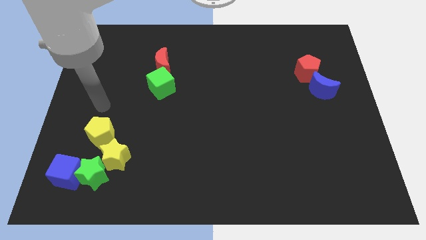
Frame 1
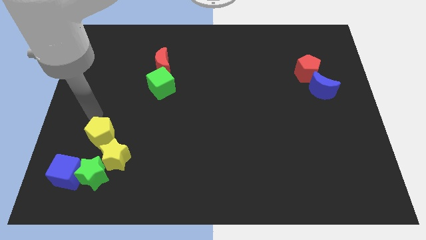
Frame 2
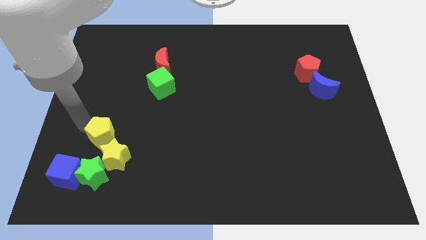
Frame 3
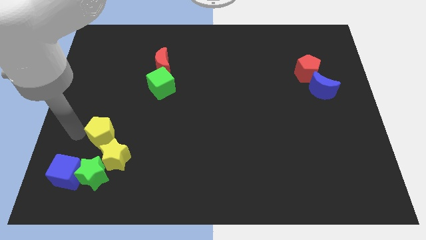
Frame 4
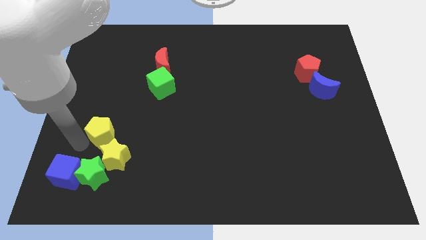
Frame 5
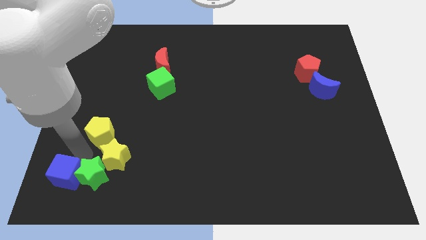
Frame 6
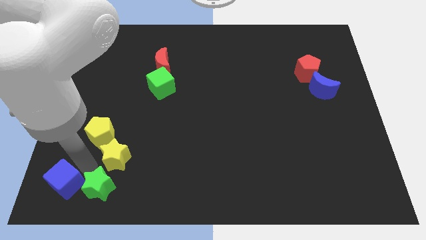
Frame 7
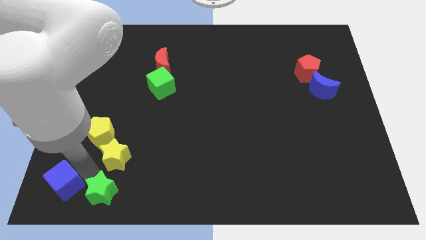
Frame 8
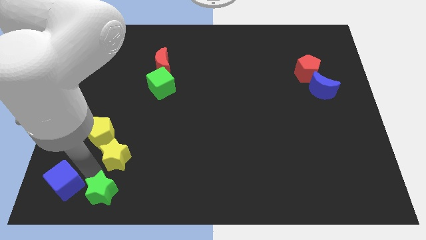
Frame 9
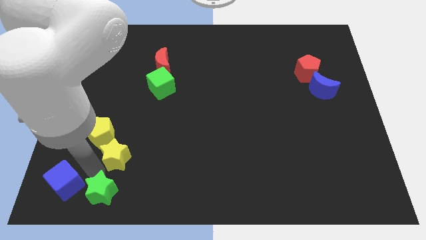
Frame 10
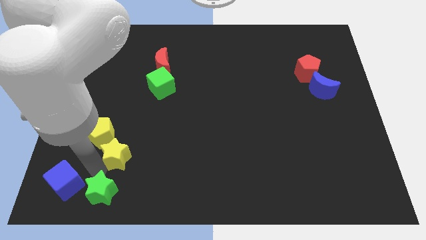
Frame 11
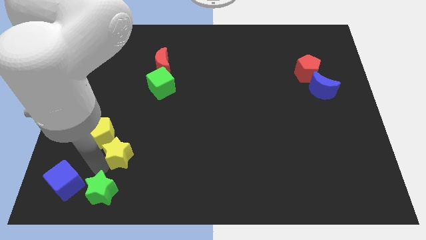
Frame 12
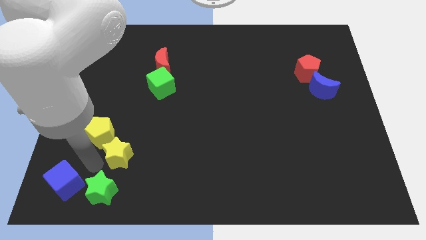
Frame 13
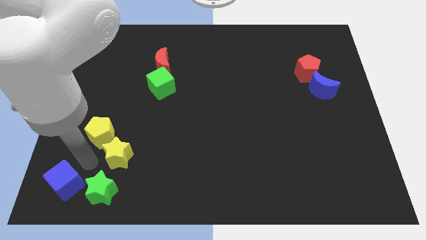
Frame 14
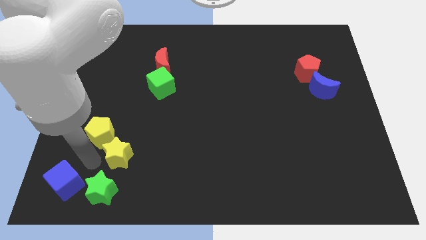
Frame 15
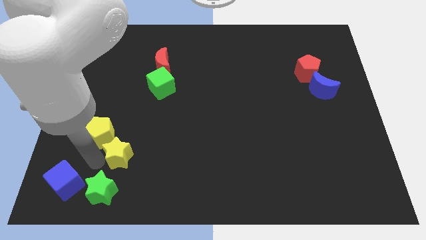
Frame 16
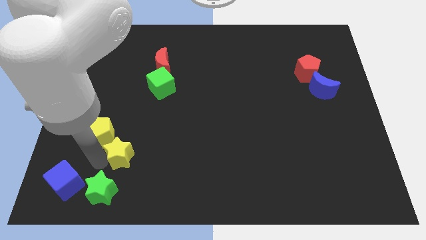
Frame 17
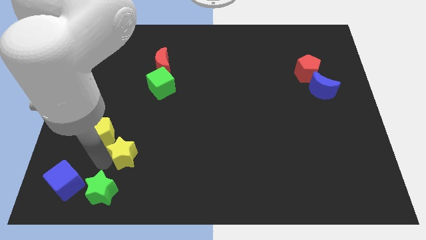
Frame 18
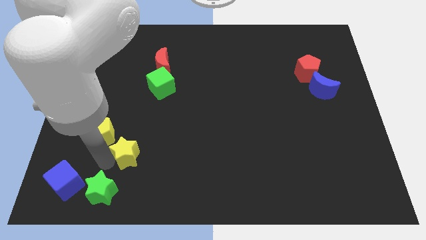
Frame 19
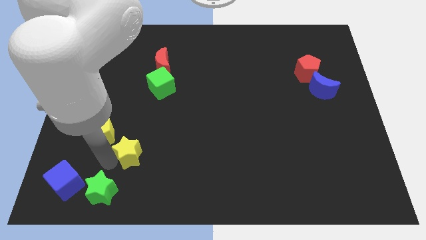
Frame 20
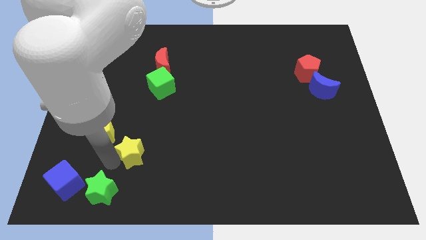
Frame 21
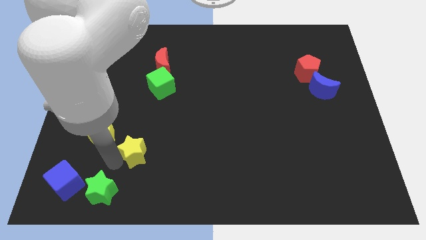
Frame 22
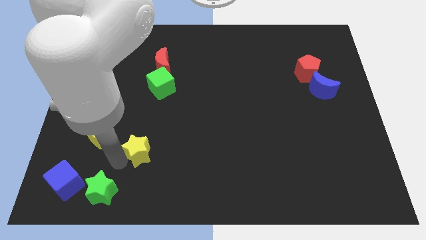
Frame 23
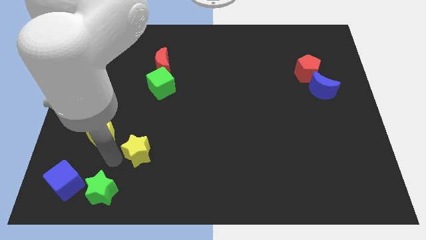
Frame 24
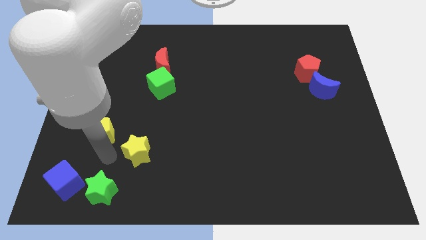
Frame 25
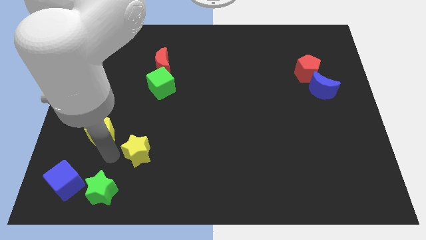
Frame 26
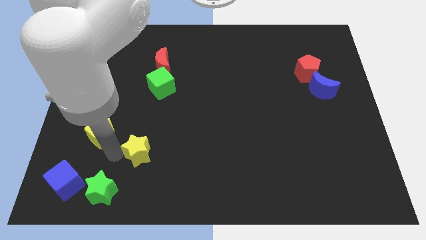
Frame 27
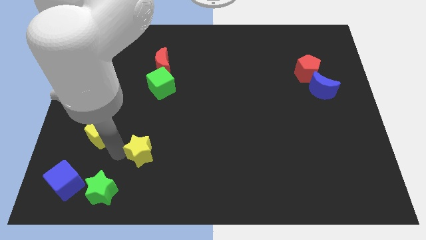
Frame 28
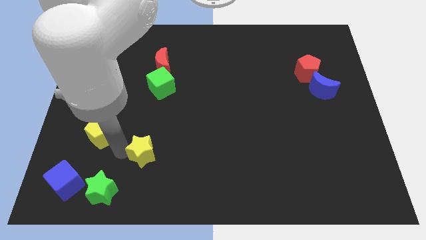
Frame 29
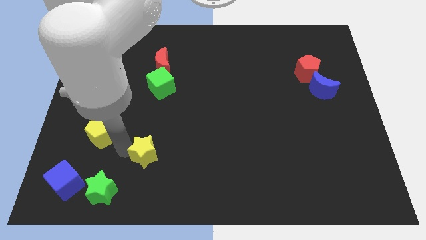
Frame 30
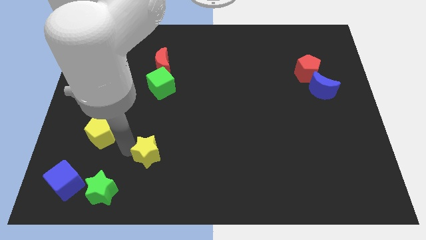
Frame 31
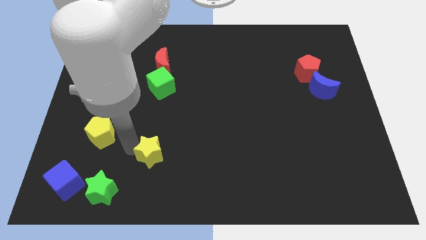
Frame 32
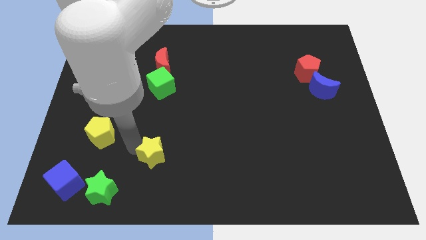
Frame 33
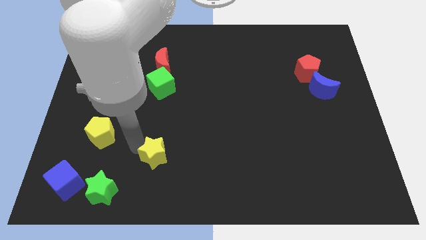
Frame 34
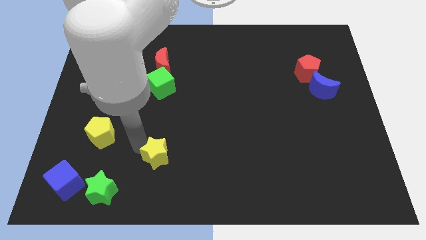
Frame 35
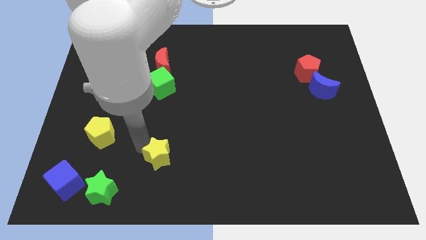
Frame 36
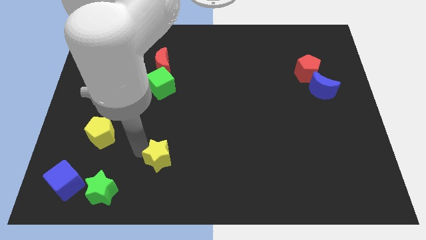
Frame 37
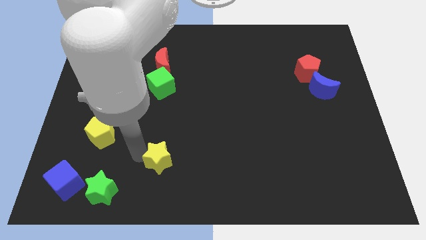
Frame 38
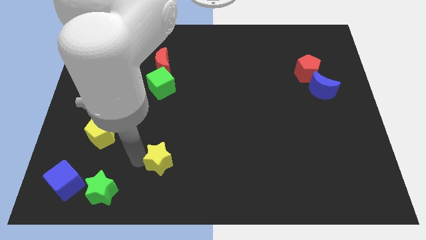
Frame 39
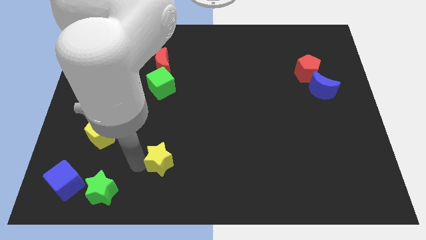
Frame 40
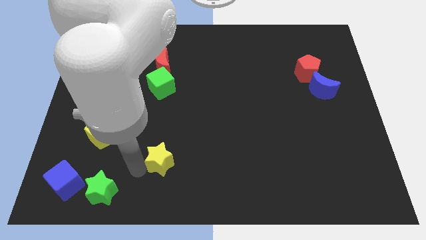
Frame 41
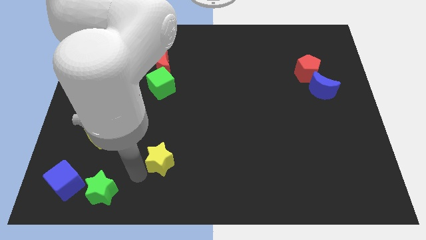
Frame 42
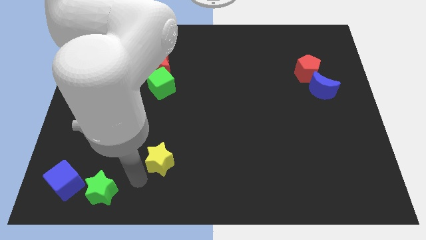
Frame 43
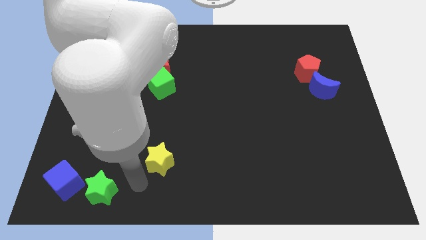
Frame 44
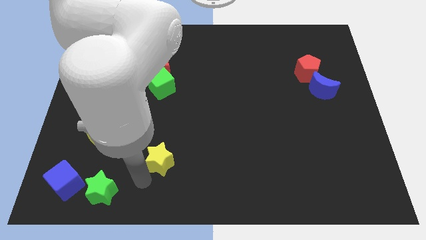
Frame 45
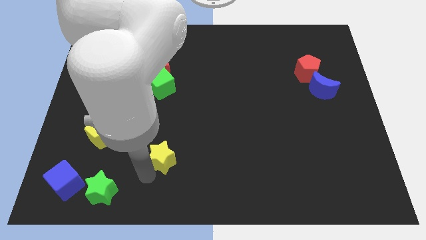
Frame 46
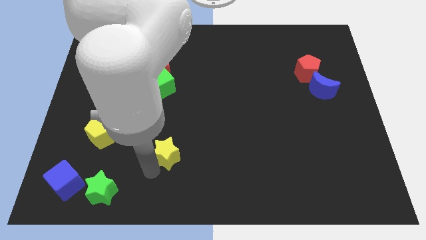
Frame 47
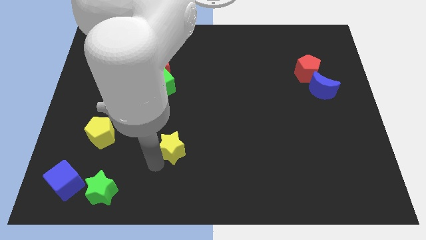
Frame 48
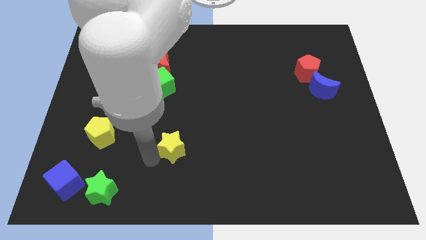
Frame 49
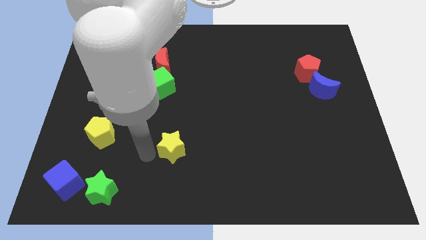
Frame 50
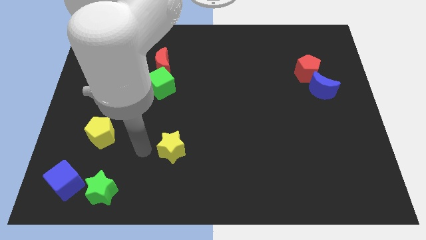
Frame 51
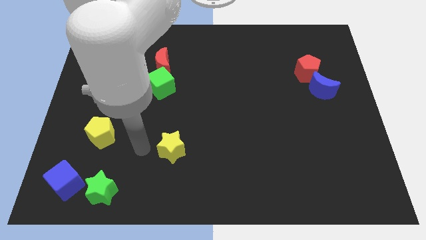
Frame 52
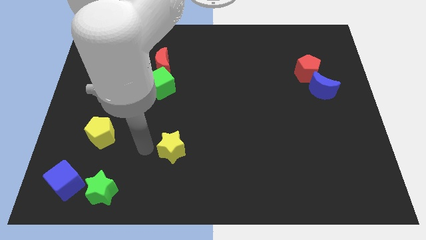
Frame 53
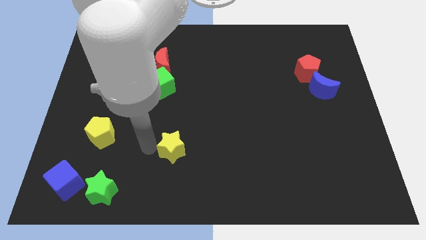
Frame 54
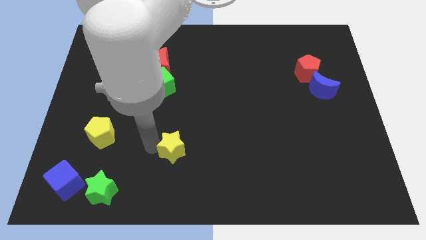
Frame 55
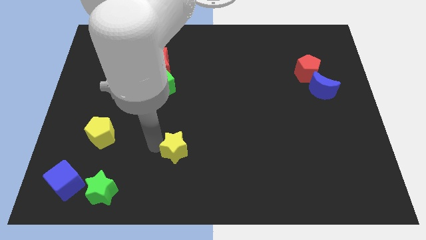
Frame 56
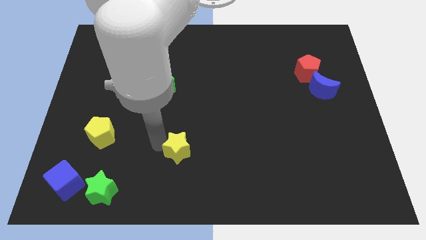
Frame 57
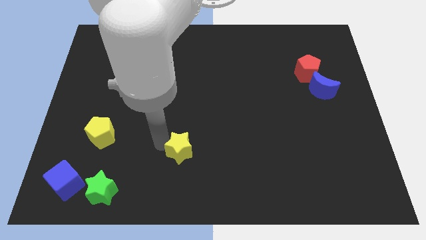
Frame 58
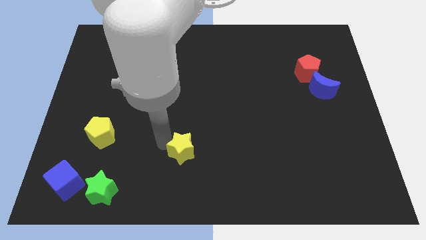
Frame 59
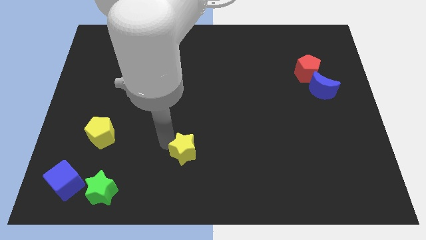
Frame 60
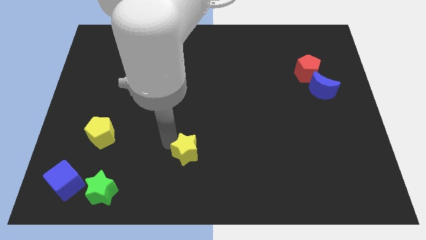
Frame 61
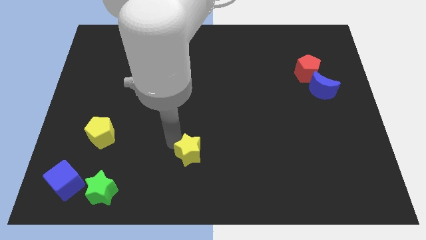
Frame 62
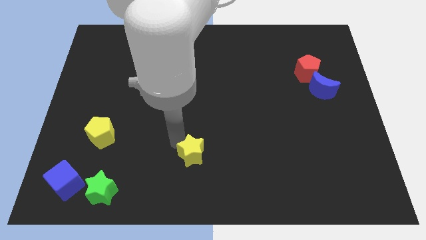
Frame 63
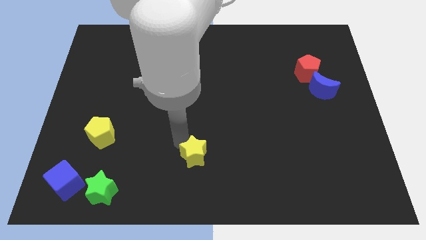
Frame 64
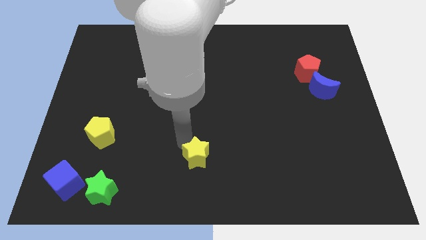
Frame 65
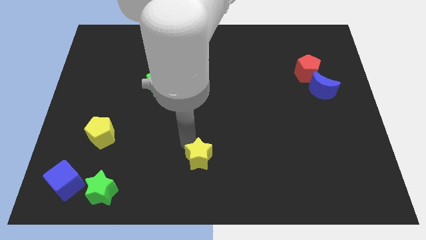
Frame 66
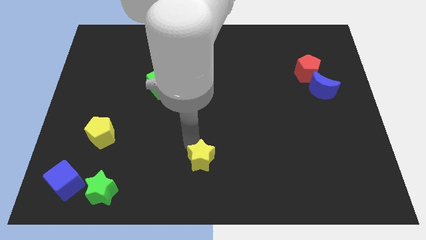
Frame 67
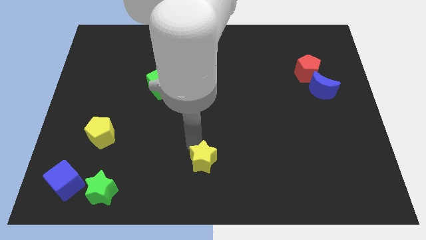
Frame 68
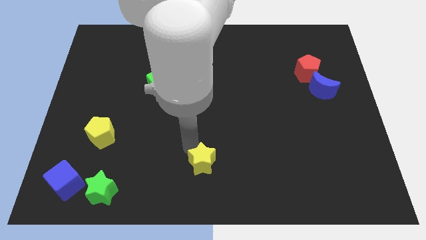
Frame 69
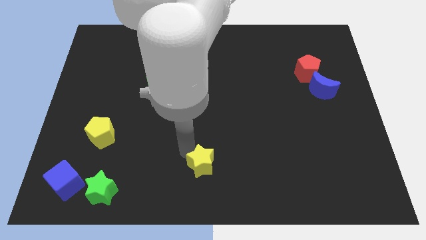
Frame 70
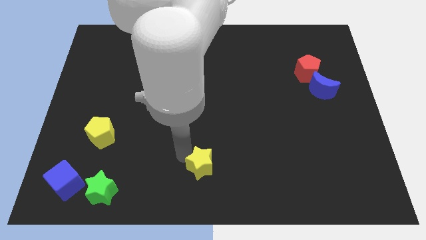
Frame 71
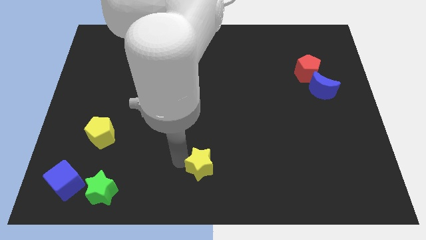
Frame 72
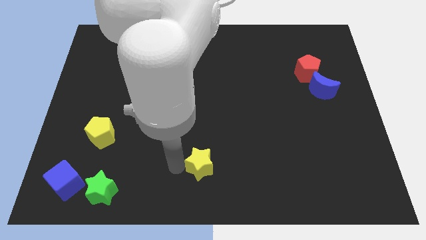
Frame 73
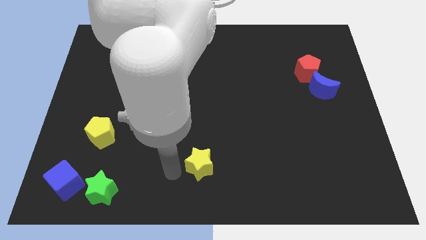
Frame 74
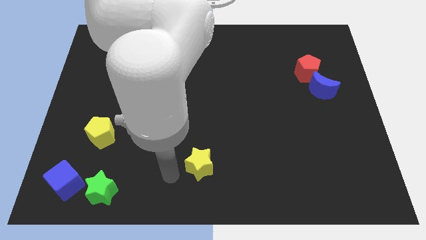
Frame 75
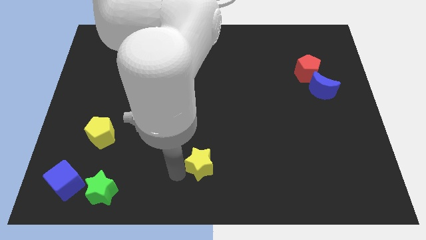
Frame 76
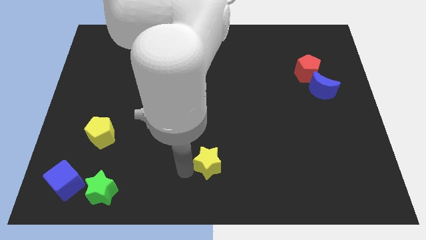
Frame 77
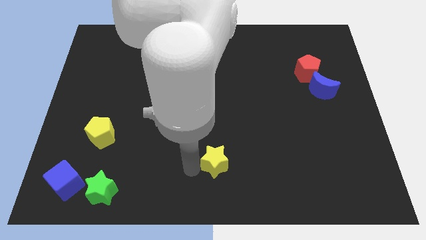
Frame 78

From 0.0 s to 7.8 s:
slide the yellow star to the right

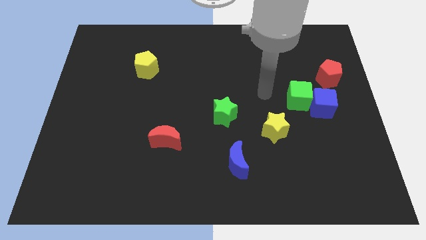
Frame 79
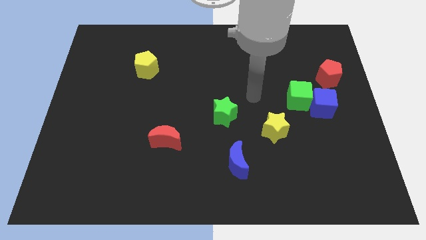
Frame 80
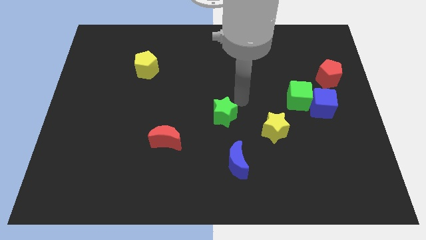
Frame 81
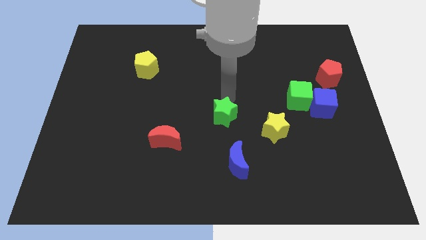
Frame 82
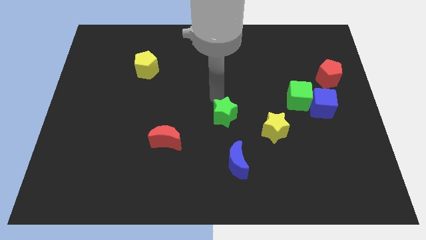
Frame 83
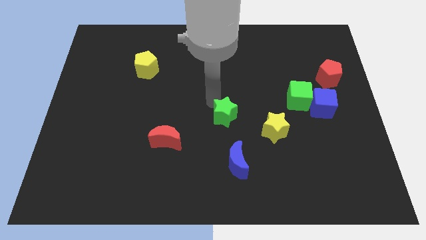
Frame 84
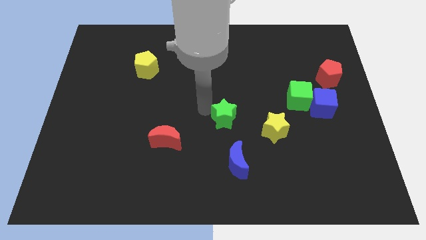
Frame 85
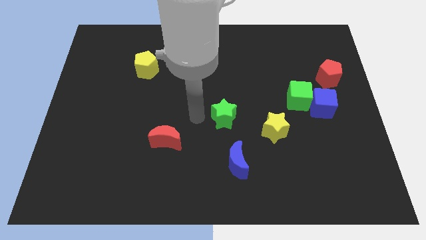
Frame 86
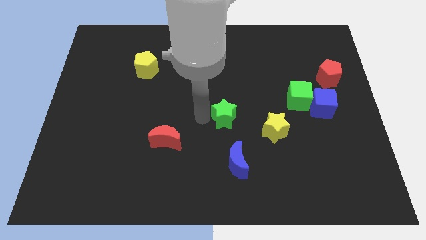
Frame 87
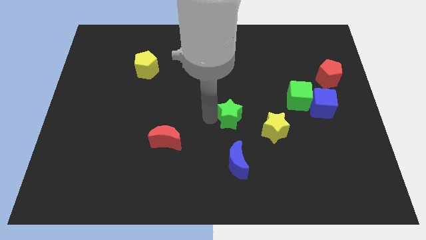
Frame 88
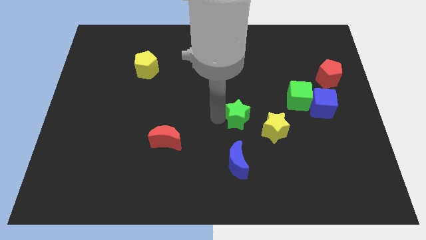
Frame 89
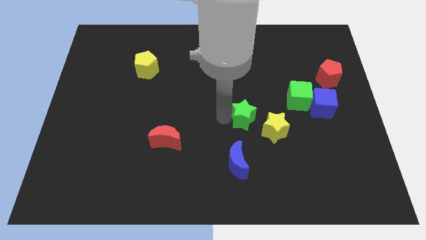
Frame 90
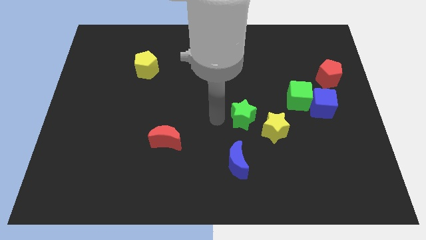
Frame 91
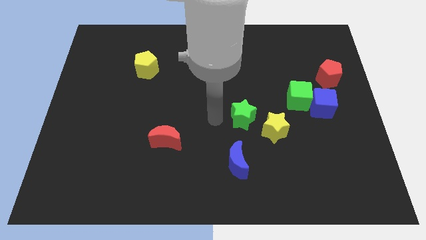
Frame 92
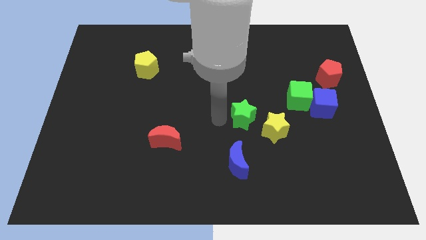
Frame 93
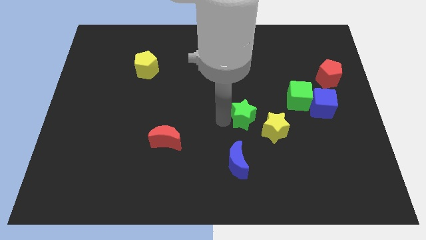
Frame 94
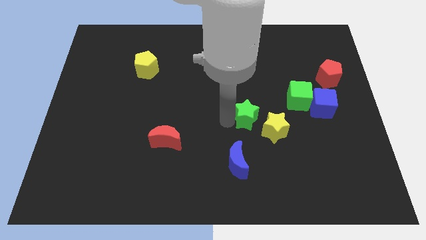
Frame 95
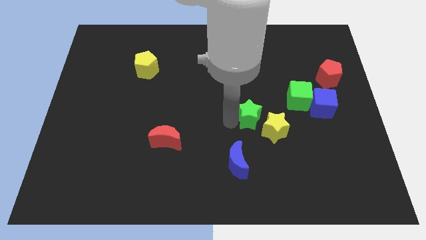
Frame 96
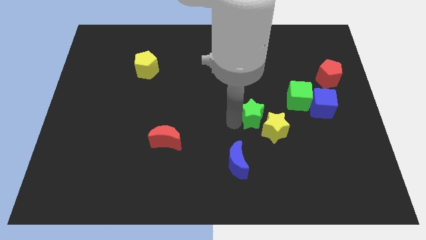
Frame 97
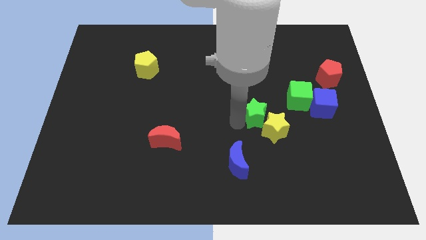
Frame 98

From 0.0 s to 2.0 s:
push the green star somewhat to the right
